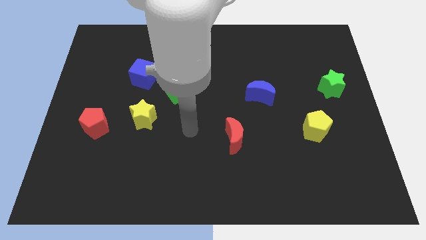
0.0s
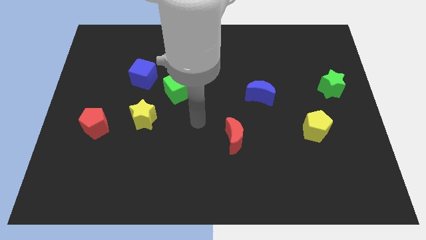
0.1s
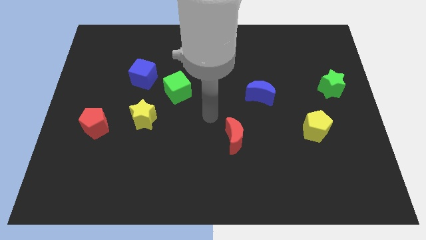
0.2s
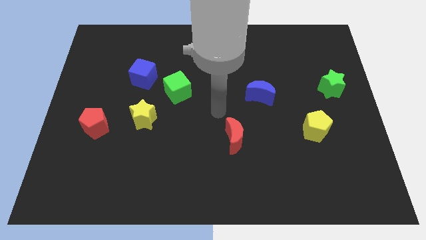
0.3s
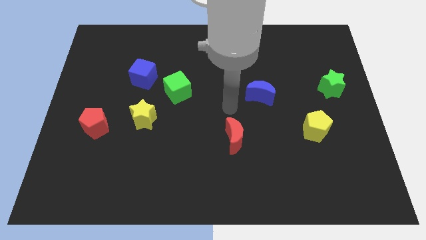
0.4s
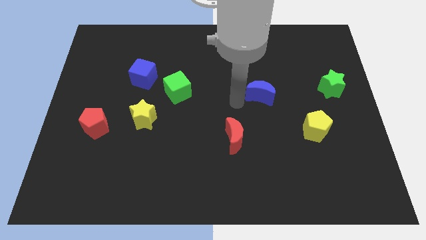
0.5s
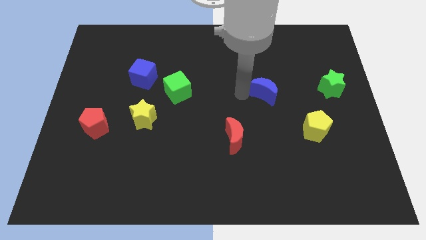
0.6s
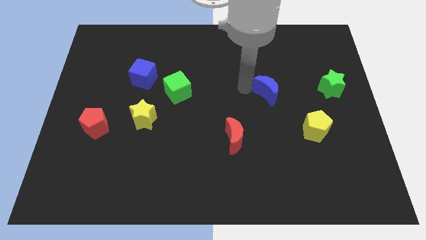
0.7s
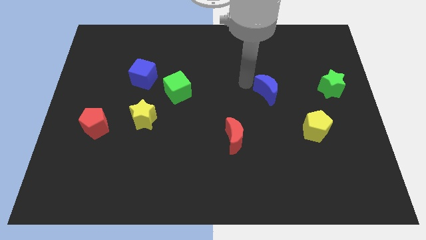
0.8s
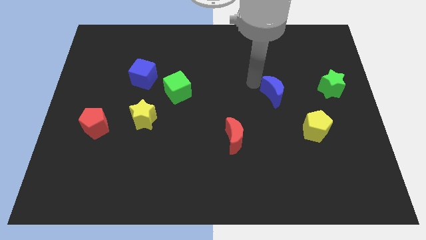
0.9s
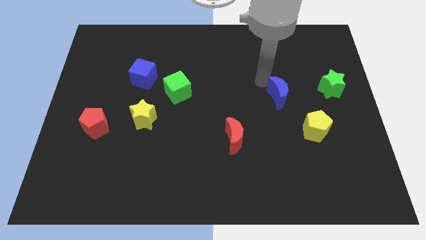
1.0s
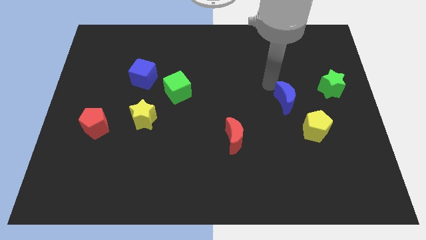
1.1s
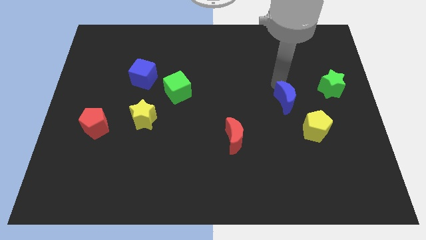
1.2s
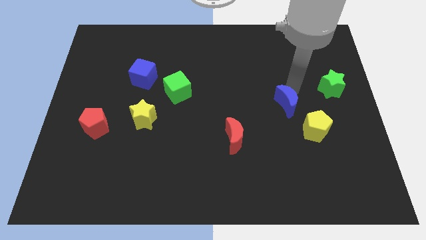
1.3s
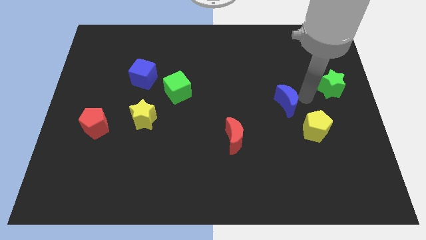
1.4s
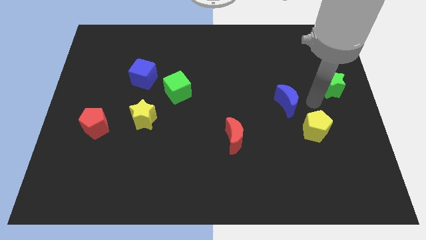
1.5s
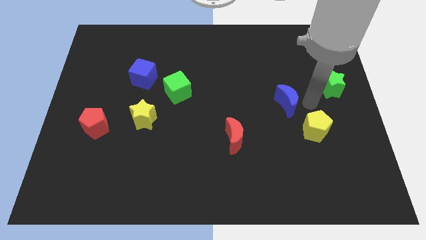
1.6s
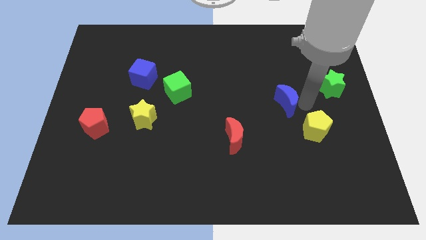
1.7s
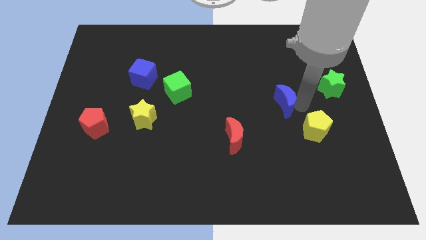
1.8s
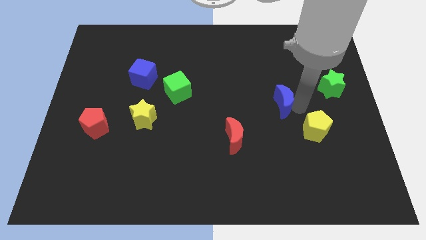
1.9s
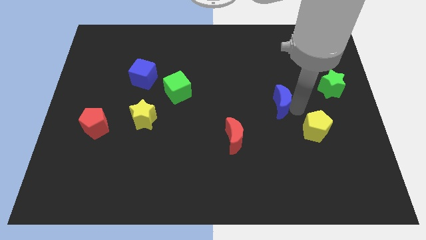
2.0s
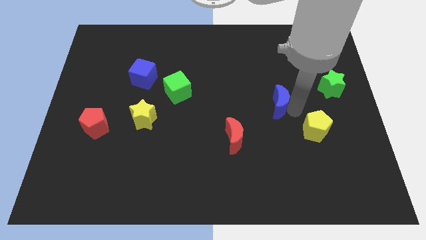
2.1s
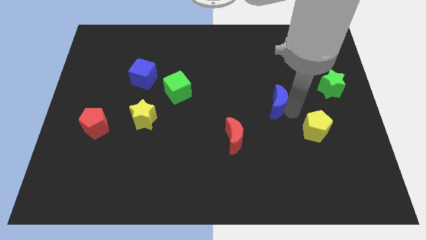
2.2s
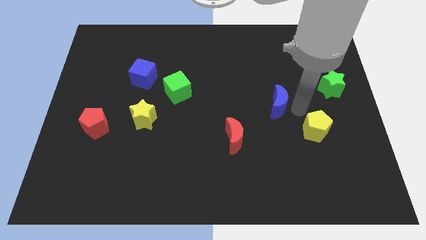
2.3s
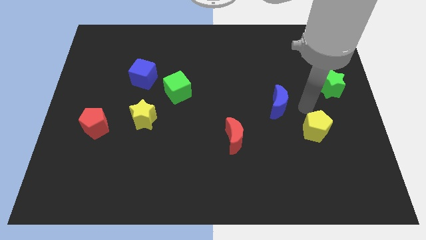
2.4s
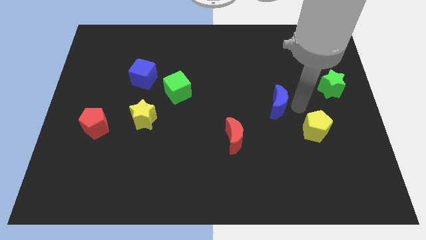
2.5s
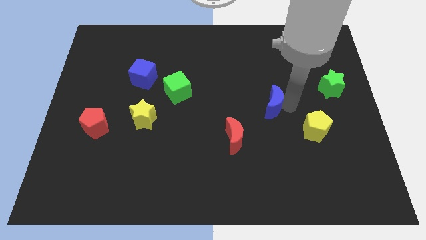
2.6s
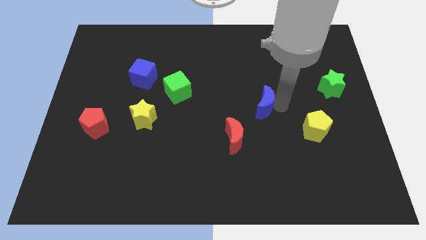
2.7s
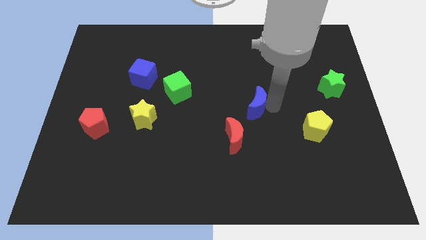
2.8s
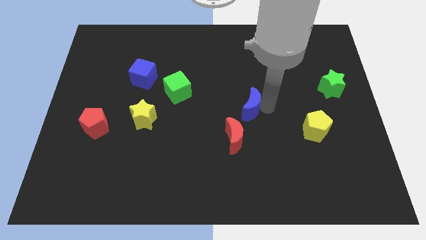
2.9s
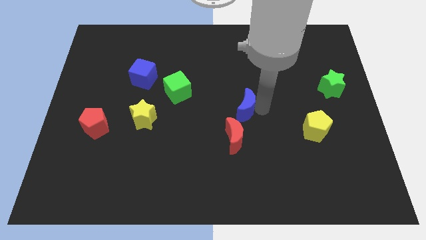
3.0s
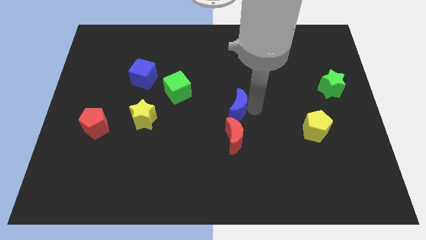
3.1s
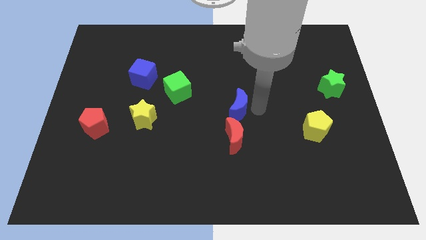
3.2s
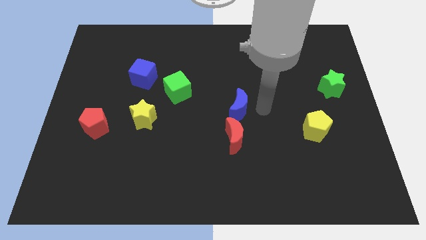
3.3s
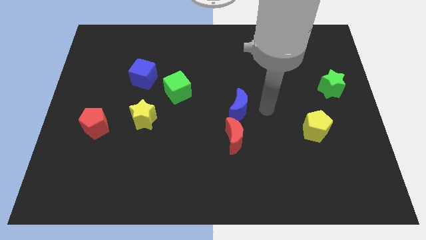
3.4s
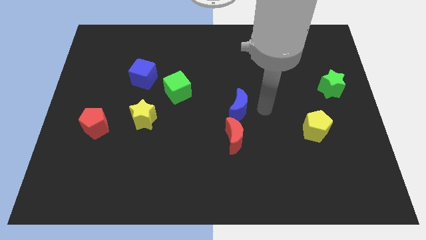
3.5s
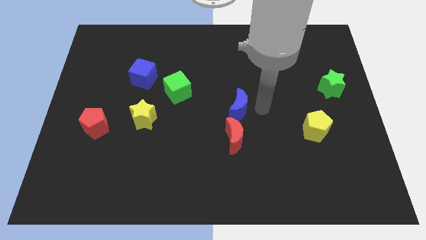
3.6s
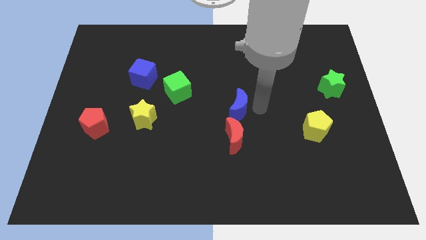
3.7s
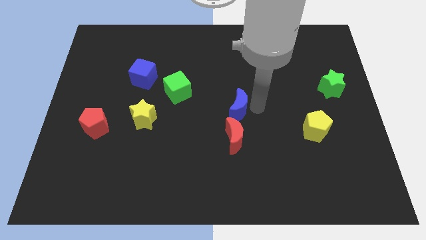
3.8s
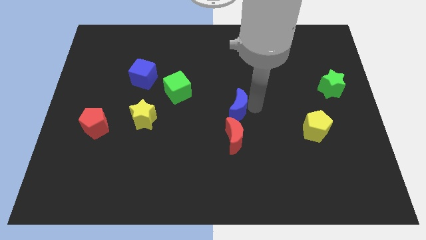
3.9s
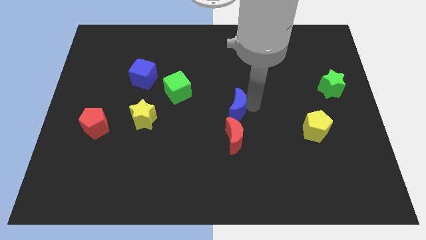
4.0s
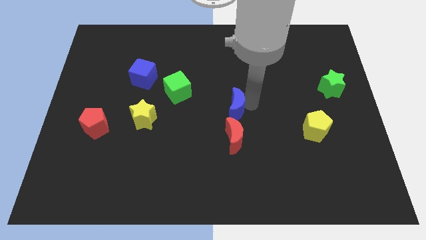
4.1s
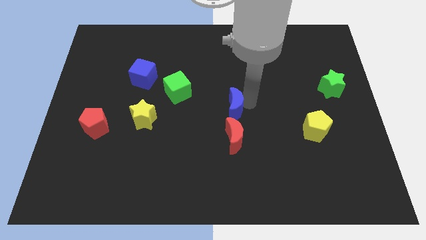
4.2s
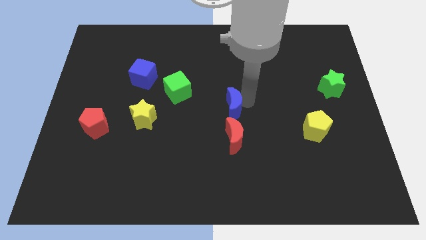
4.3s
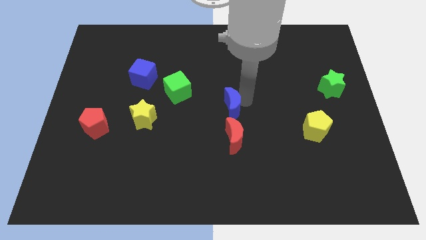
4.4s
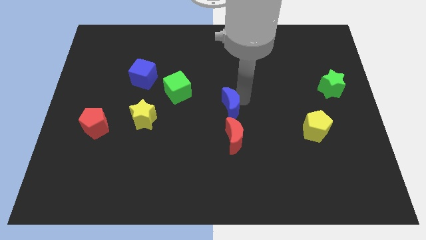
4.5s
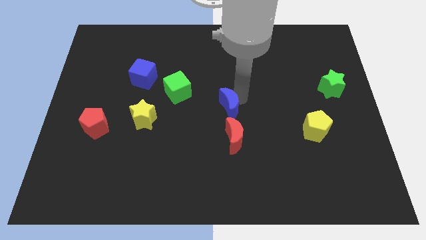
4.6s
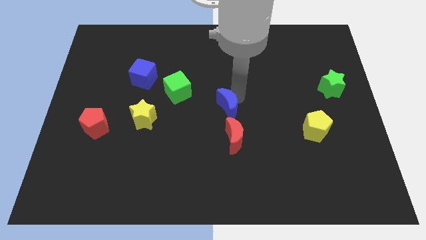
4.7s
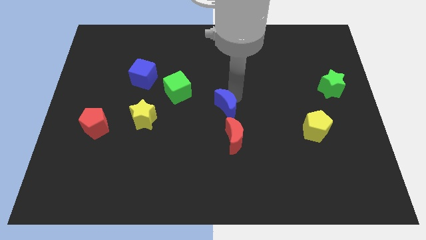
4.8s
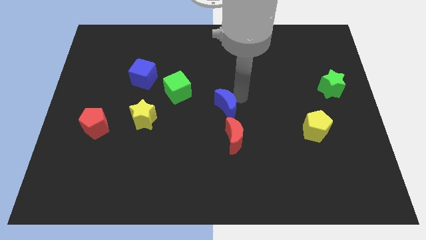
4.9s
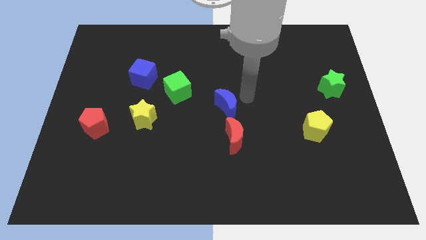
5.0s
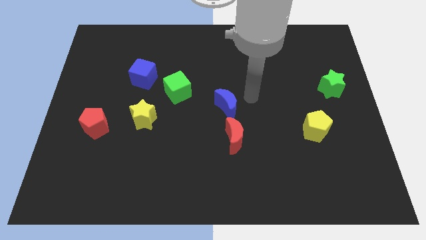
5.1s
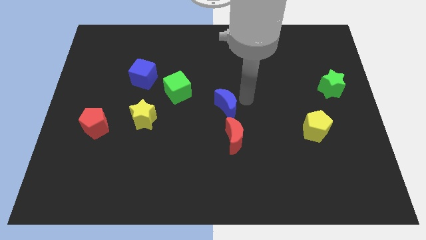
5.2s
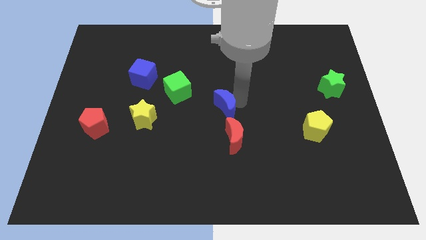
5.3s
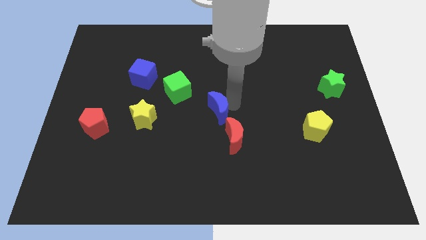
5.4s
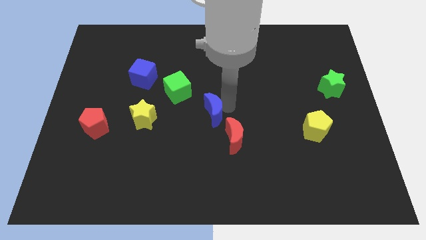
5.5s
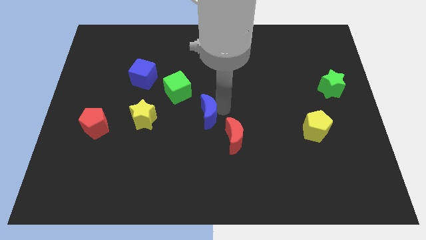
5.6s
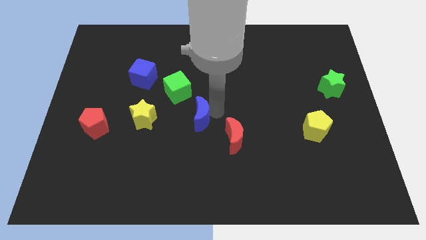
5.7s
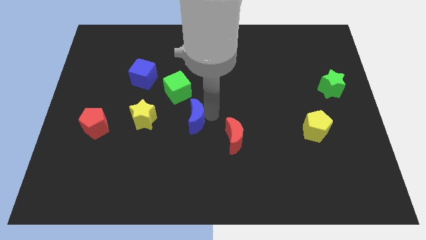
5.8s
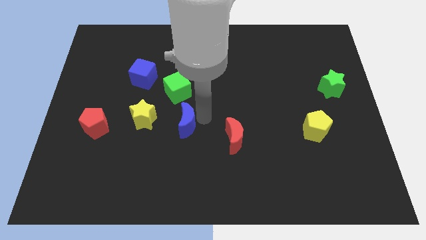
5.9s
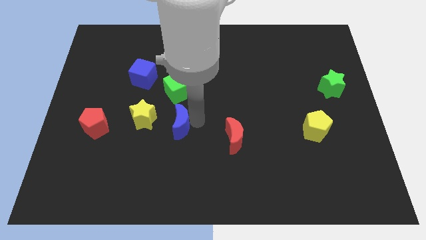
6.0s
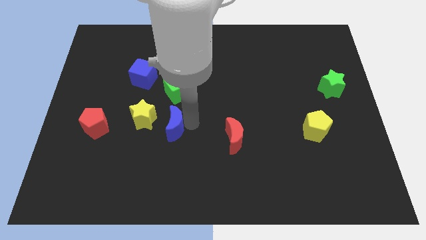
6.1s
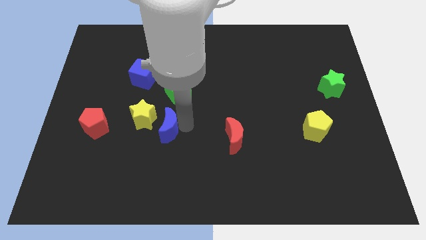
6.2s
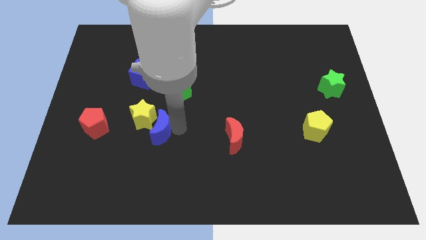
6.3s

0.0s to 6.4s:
push the blue moon right of the red pentagon

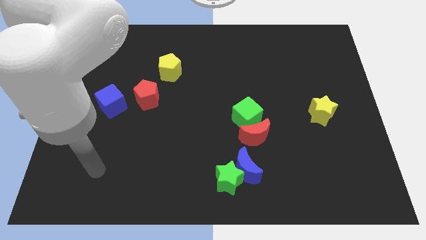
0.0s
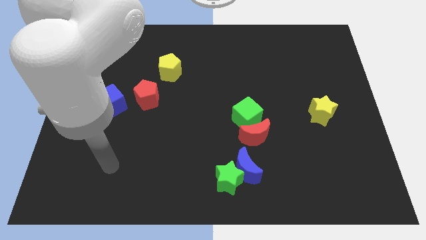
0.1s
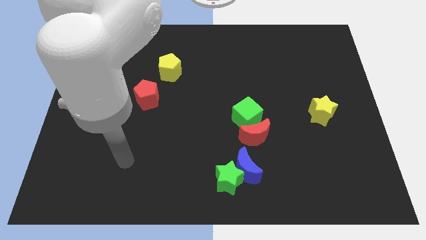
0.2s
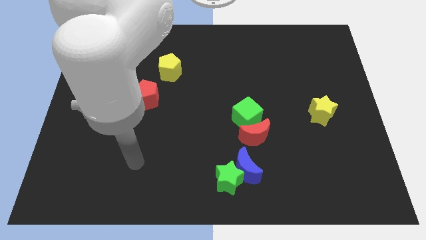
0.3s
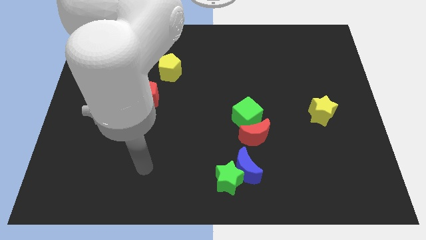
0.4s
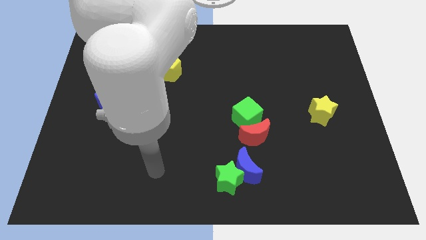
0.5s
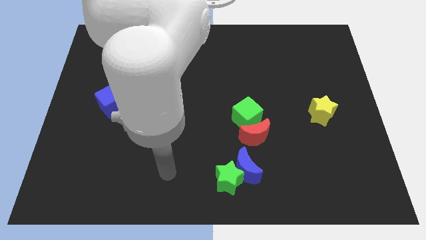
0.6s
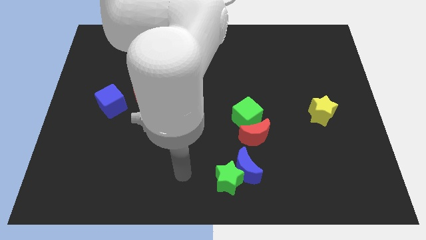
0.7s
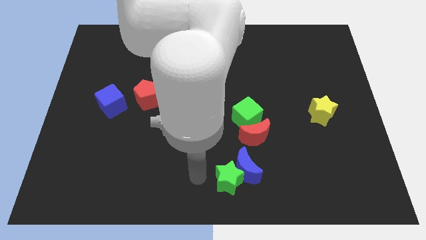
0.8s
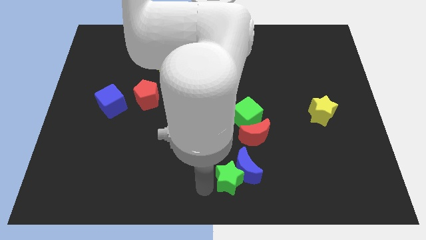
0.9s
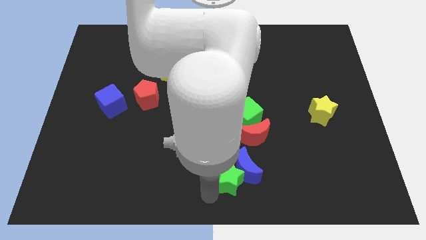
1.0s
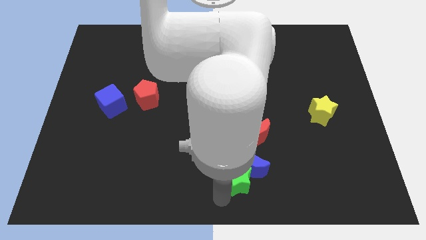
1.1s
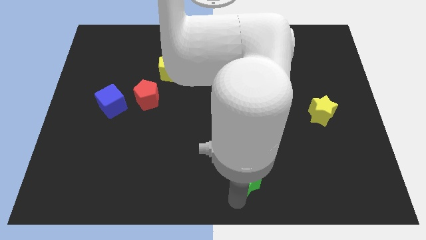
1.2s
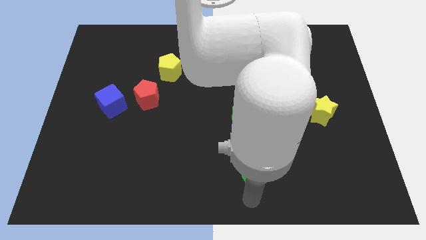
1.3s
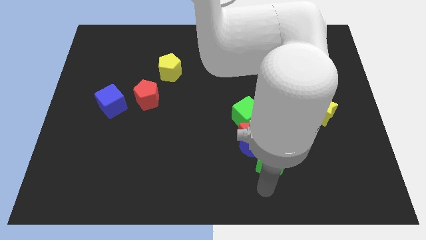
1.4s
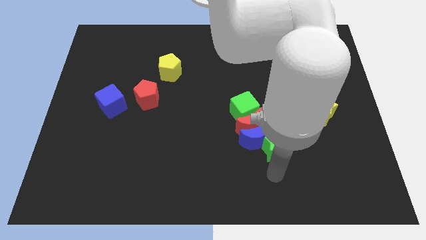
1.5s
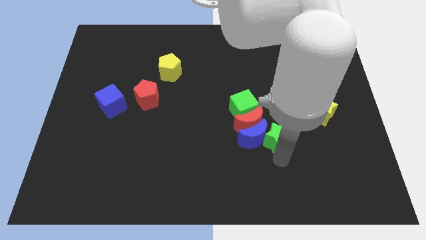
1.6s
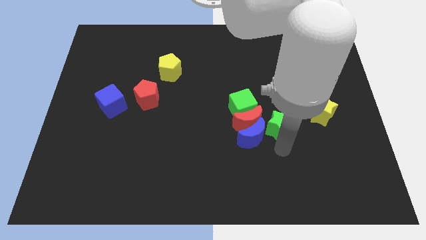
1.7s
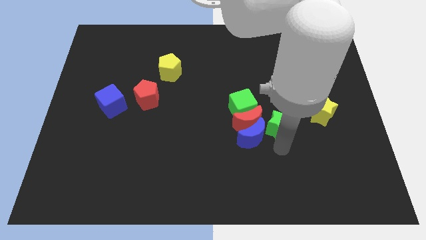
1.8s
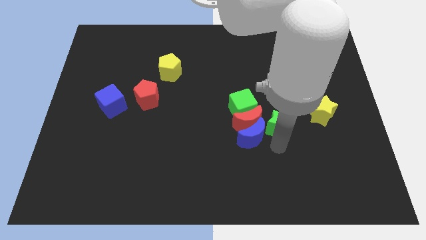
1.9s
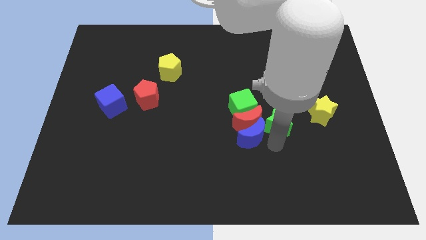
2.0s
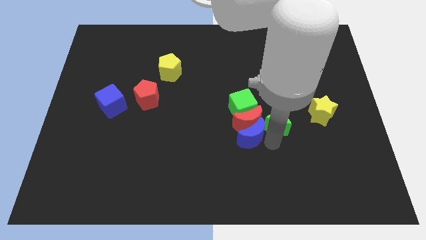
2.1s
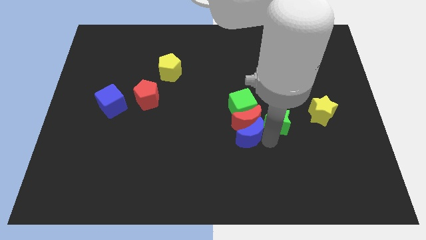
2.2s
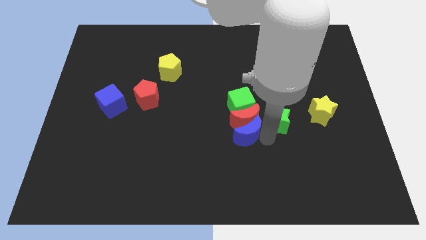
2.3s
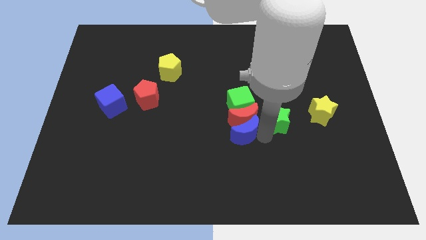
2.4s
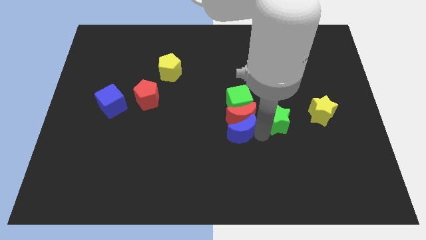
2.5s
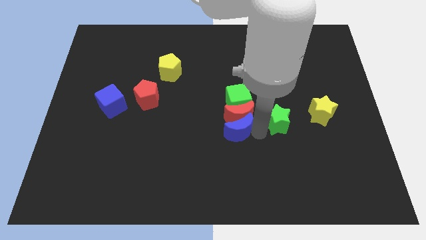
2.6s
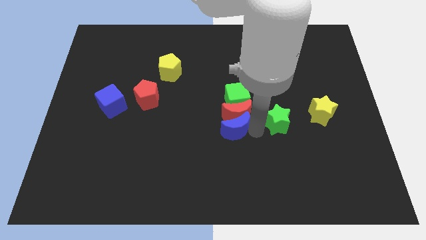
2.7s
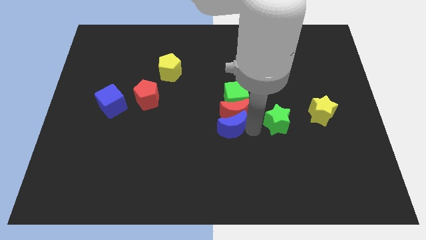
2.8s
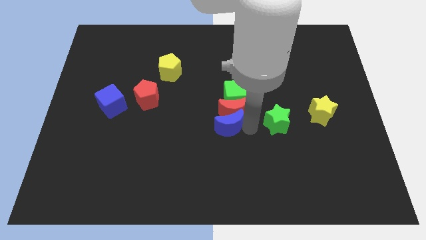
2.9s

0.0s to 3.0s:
move the blue moon to the bottom left of the green cube
